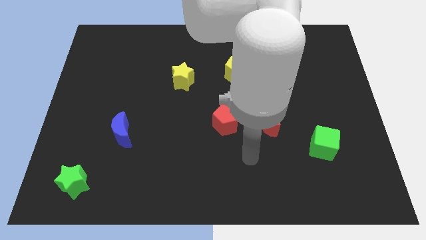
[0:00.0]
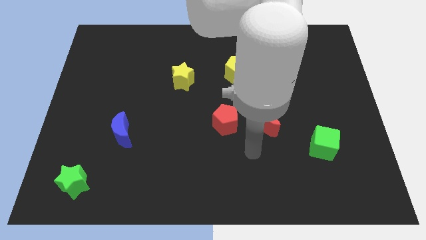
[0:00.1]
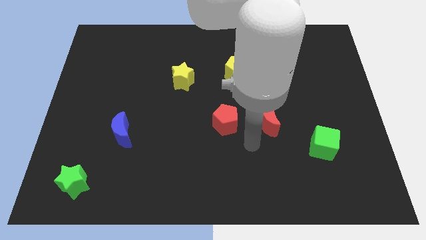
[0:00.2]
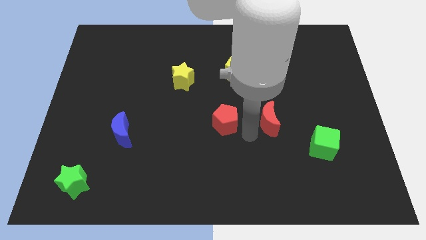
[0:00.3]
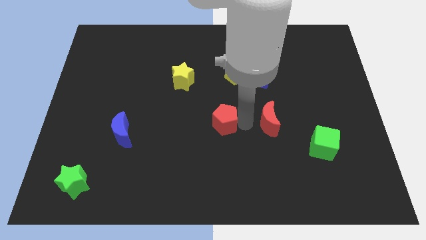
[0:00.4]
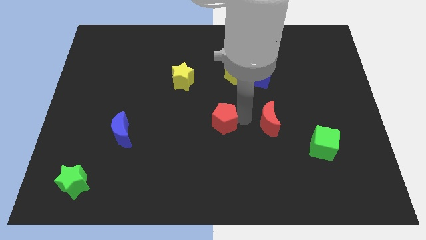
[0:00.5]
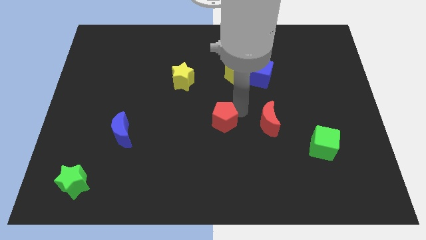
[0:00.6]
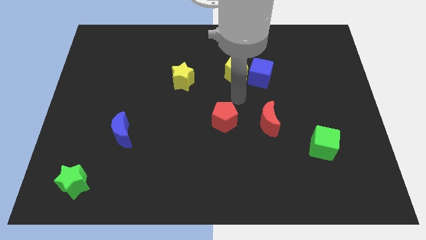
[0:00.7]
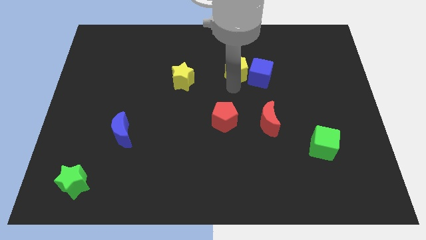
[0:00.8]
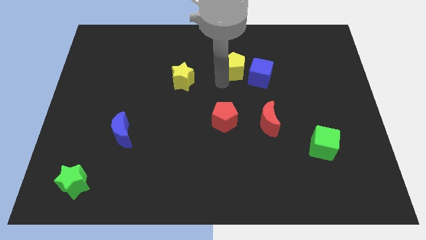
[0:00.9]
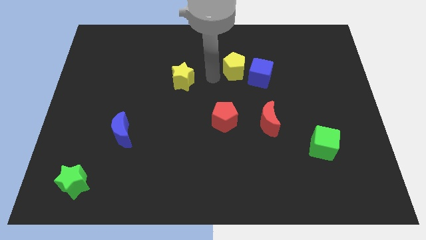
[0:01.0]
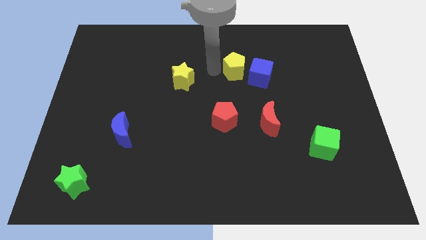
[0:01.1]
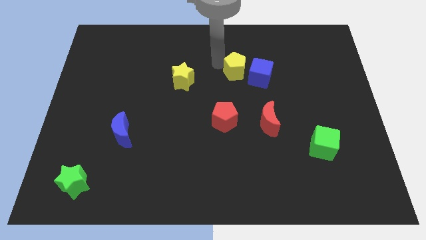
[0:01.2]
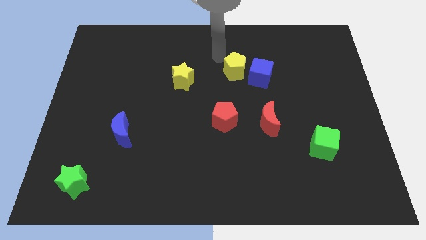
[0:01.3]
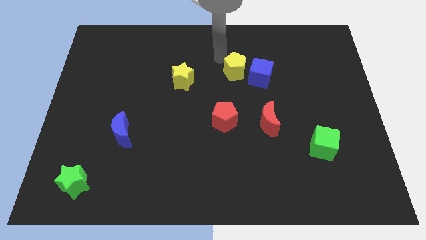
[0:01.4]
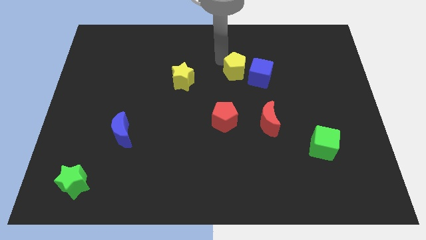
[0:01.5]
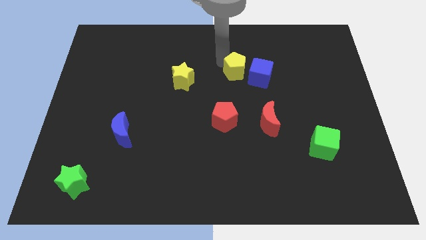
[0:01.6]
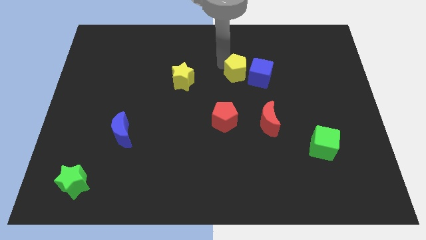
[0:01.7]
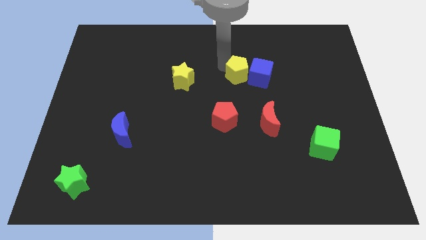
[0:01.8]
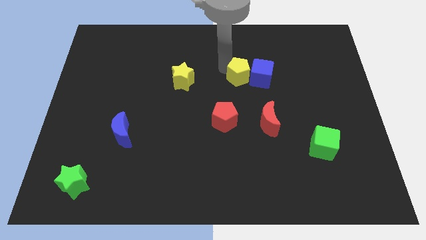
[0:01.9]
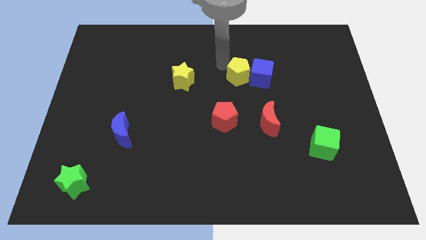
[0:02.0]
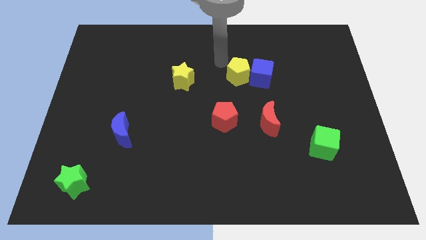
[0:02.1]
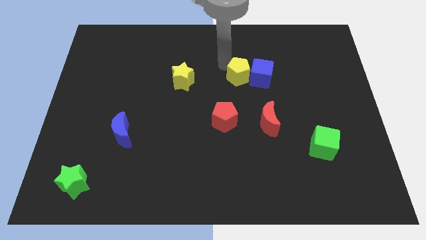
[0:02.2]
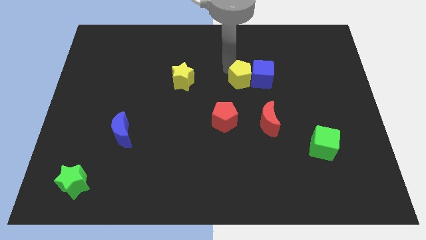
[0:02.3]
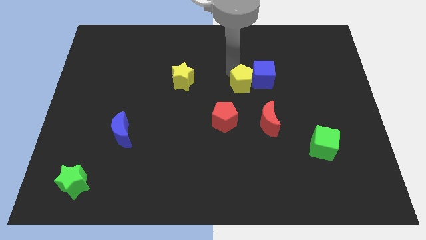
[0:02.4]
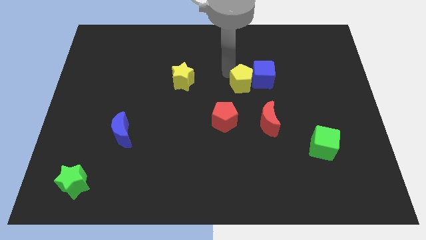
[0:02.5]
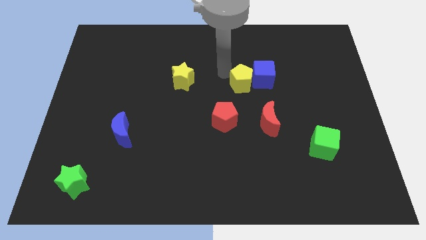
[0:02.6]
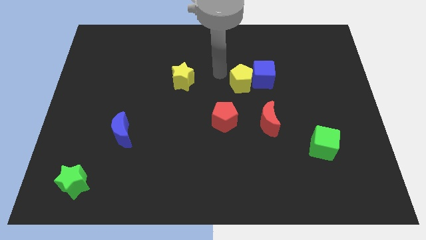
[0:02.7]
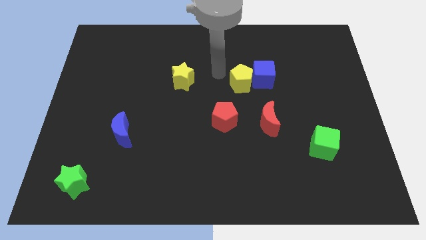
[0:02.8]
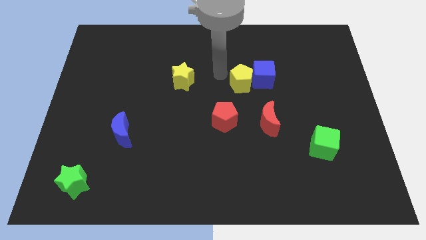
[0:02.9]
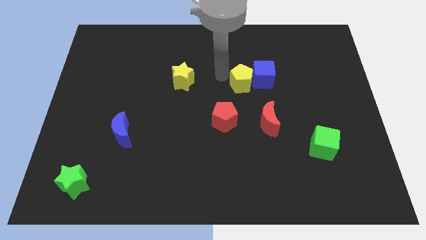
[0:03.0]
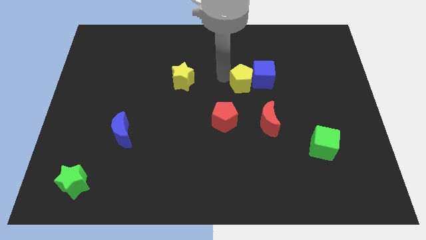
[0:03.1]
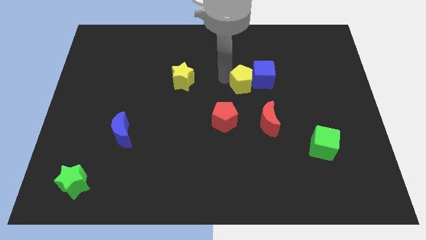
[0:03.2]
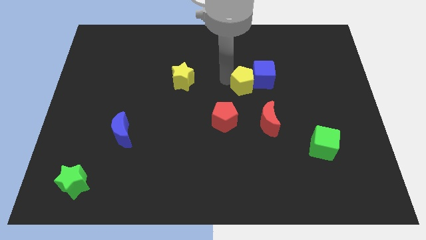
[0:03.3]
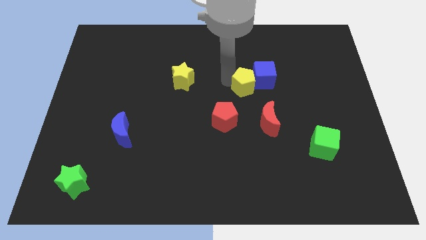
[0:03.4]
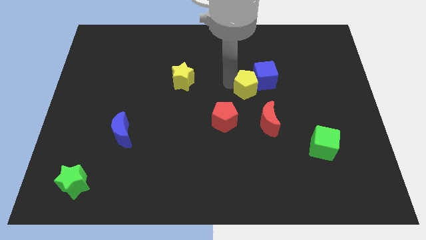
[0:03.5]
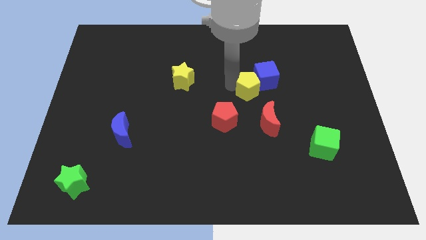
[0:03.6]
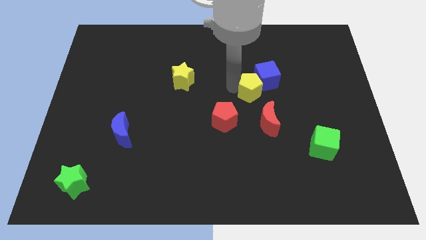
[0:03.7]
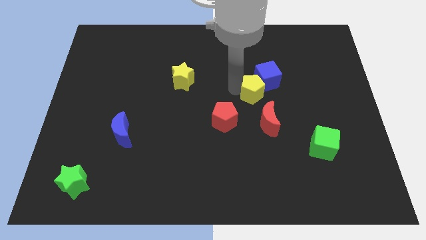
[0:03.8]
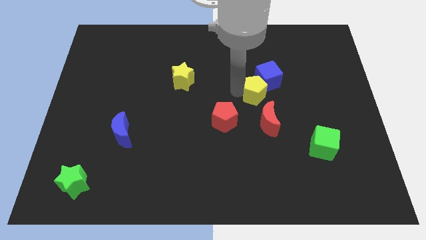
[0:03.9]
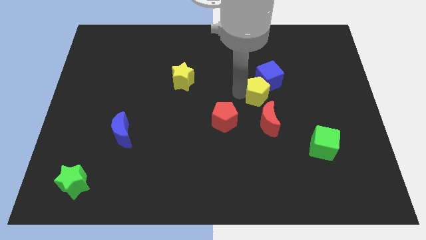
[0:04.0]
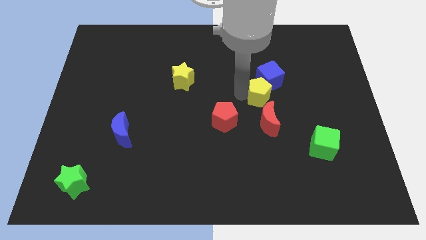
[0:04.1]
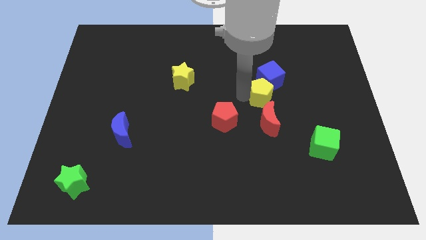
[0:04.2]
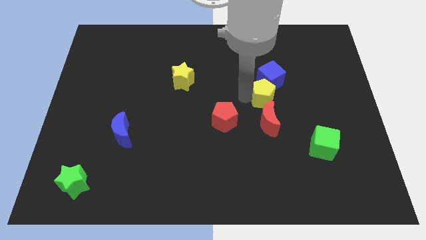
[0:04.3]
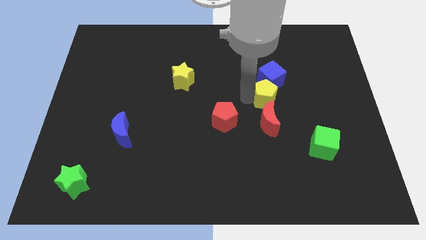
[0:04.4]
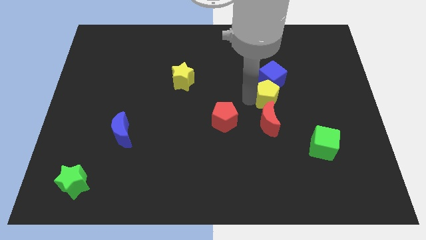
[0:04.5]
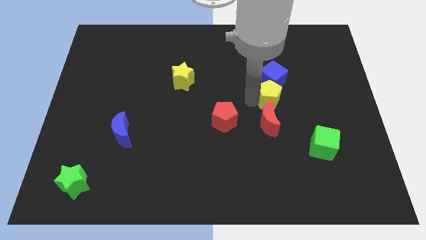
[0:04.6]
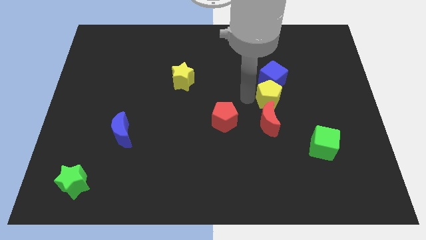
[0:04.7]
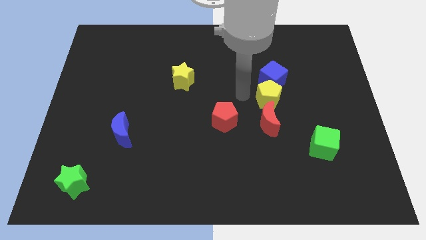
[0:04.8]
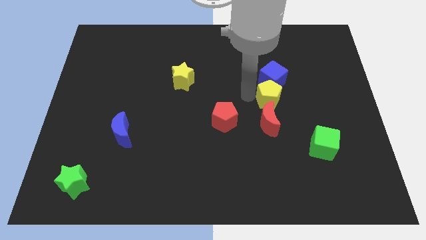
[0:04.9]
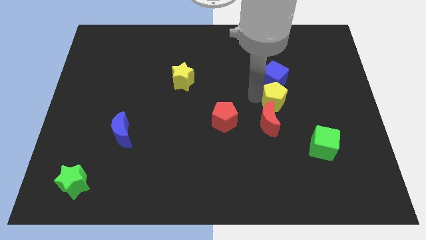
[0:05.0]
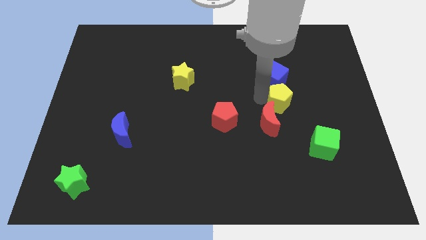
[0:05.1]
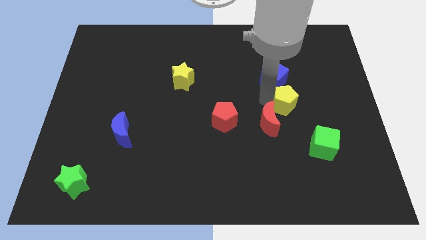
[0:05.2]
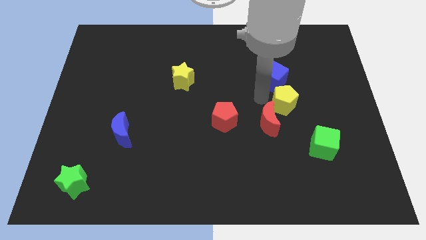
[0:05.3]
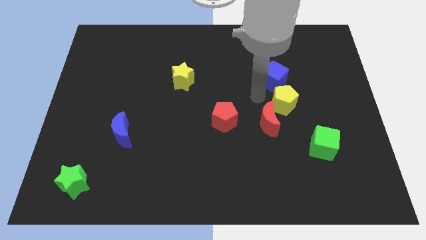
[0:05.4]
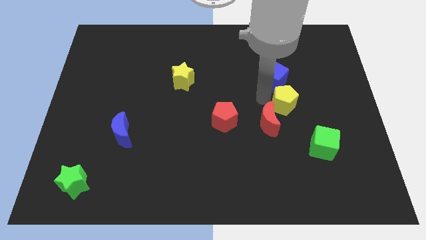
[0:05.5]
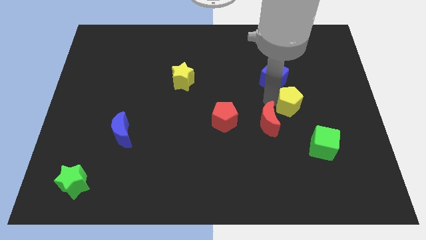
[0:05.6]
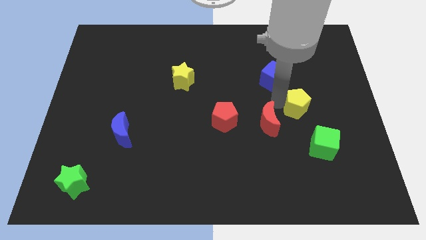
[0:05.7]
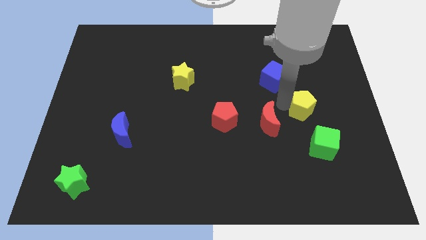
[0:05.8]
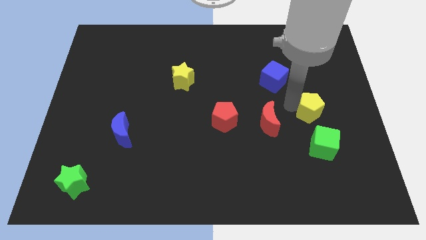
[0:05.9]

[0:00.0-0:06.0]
push the yellow pentagon downwards and to the right

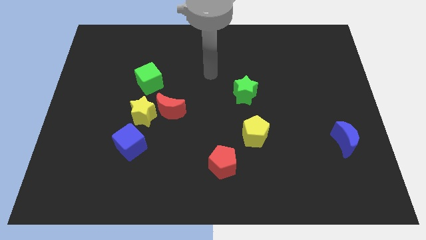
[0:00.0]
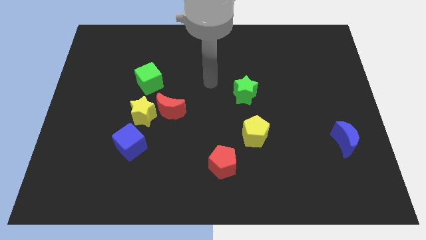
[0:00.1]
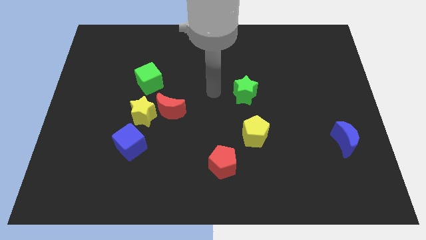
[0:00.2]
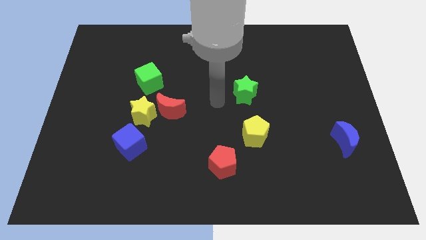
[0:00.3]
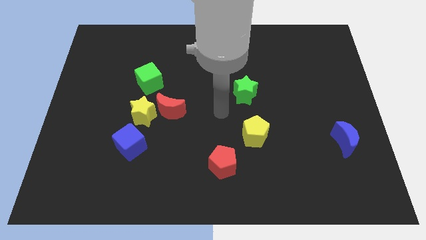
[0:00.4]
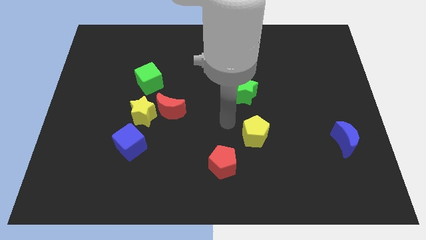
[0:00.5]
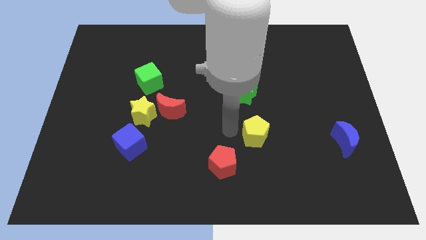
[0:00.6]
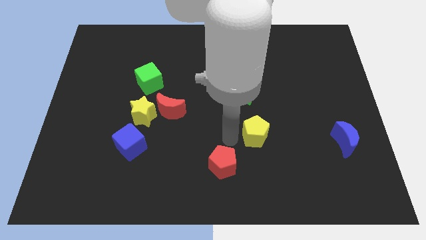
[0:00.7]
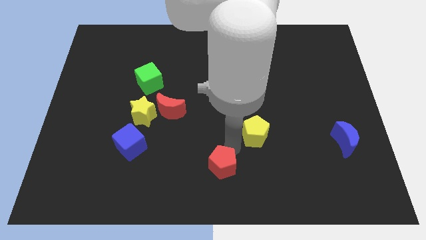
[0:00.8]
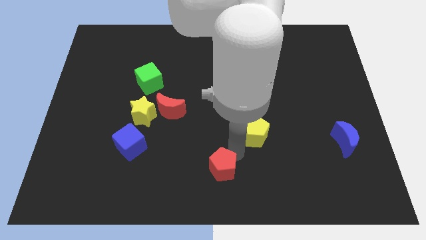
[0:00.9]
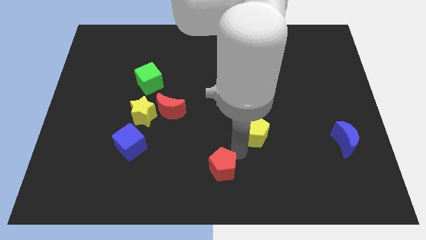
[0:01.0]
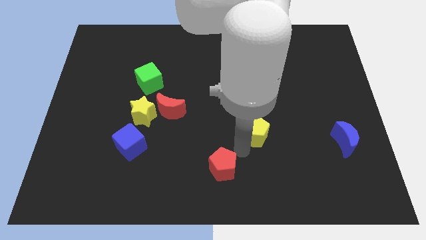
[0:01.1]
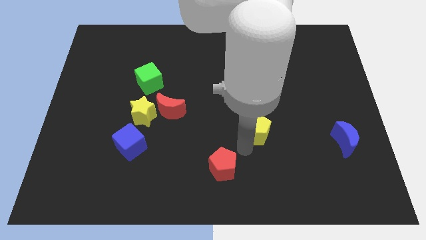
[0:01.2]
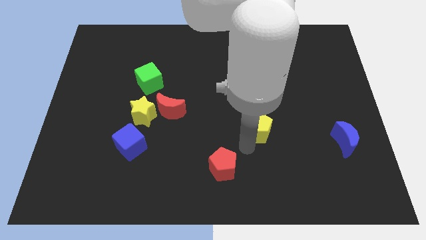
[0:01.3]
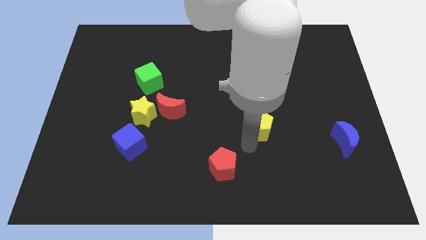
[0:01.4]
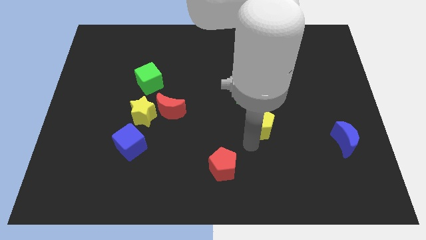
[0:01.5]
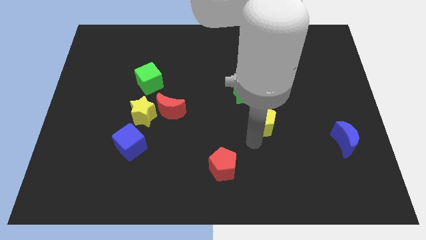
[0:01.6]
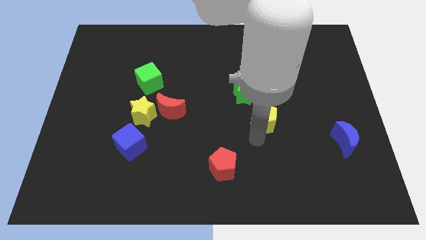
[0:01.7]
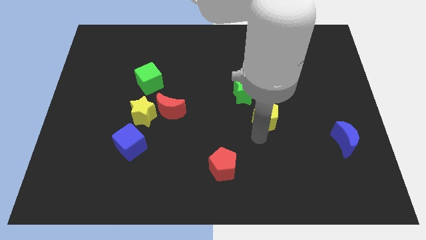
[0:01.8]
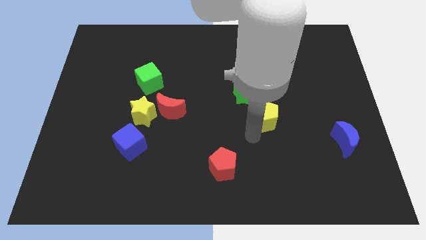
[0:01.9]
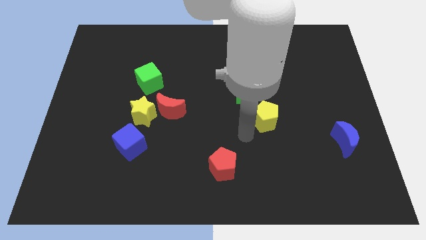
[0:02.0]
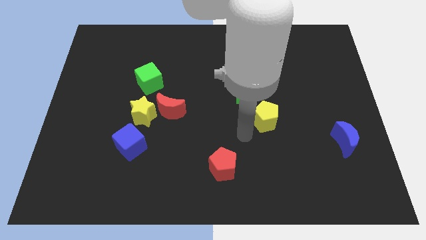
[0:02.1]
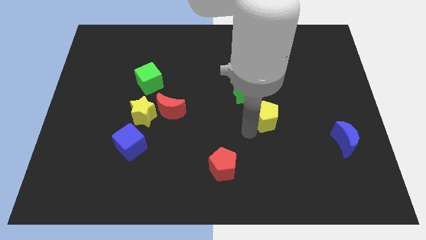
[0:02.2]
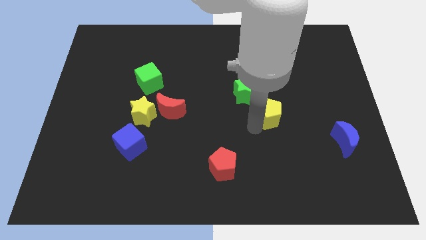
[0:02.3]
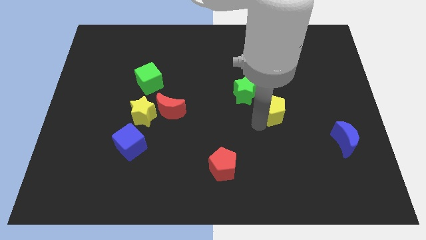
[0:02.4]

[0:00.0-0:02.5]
push the yellow pentagon upwards and then to the right a little
